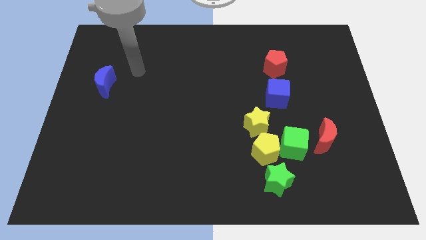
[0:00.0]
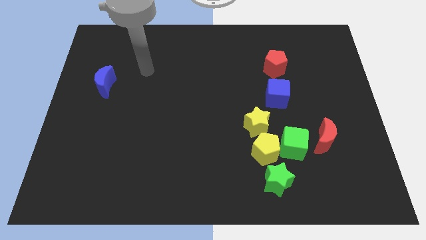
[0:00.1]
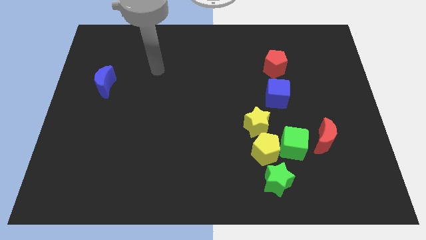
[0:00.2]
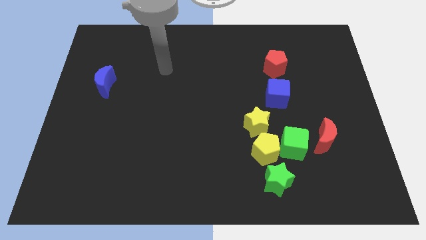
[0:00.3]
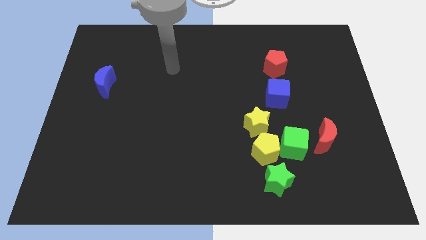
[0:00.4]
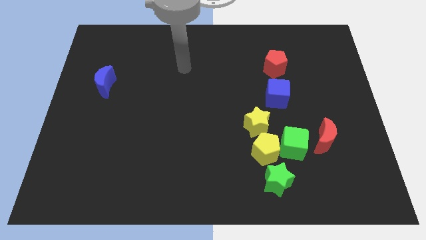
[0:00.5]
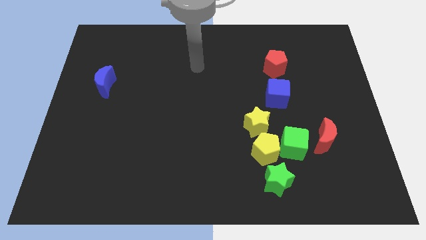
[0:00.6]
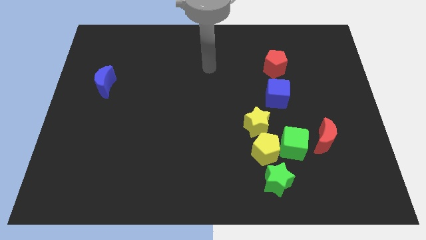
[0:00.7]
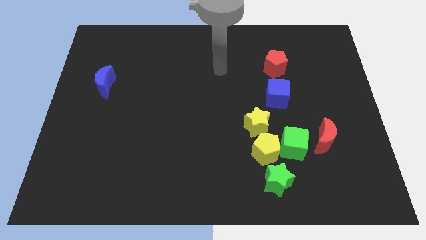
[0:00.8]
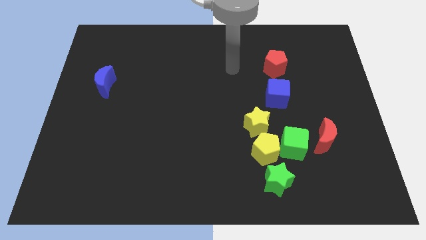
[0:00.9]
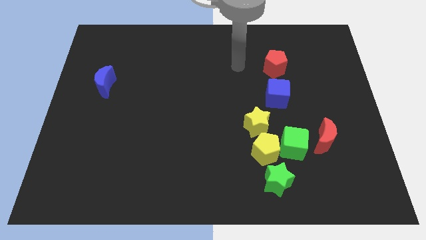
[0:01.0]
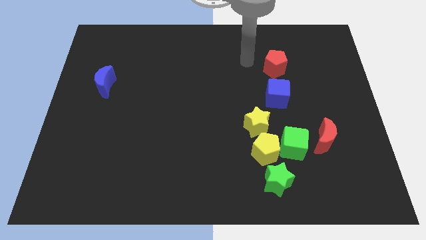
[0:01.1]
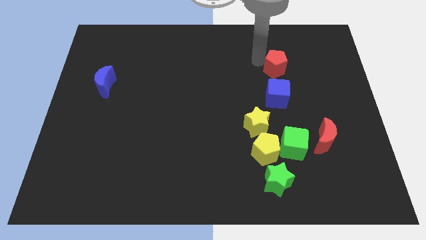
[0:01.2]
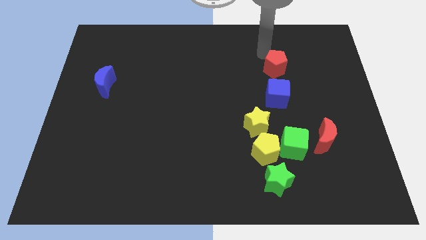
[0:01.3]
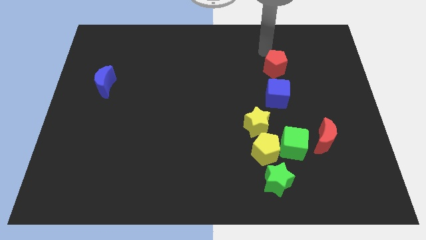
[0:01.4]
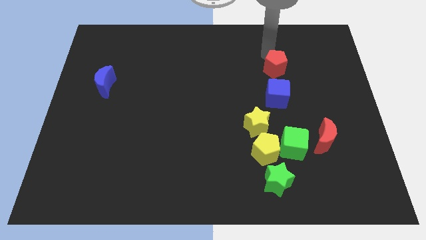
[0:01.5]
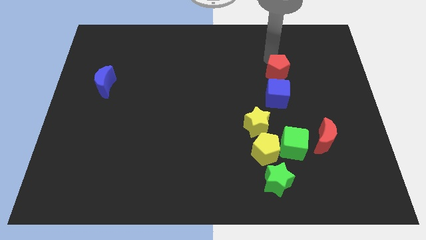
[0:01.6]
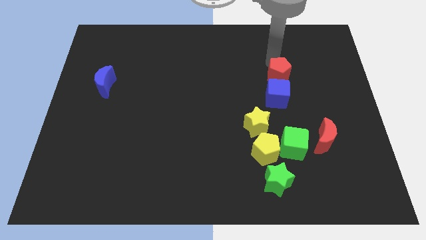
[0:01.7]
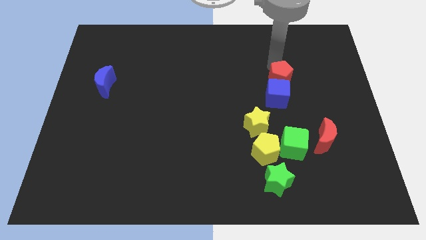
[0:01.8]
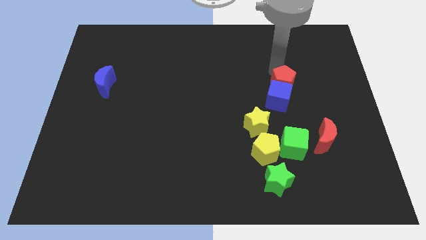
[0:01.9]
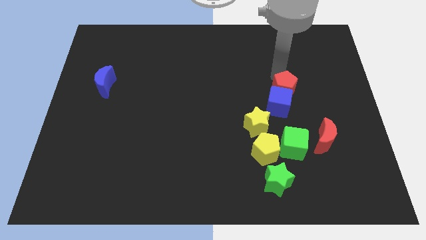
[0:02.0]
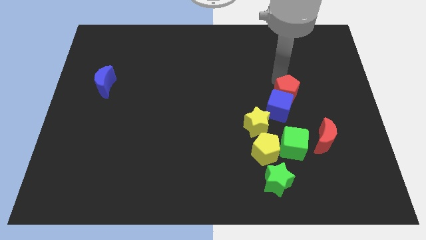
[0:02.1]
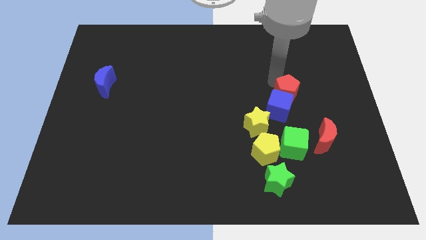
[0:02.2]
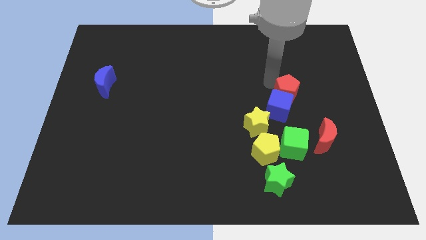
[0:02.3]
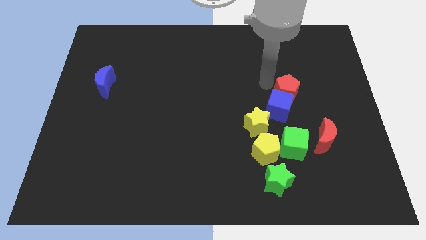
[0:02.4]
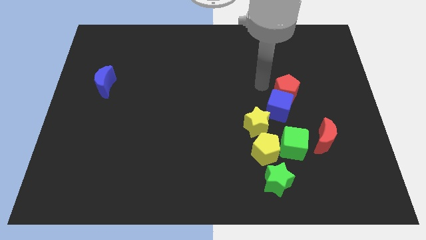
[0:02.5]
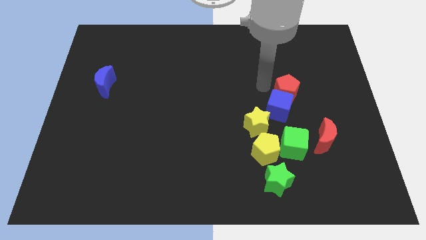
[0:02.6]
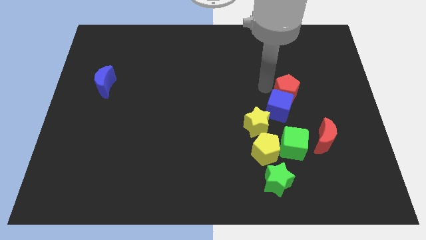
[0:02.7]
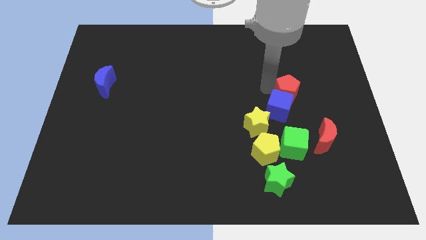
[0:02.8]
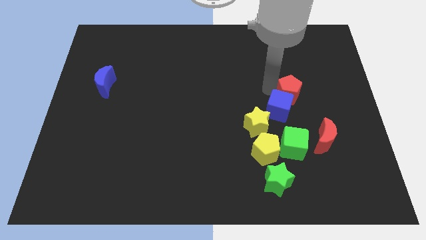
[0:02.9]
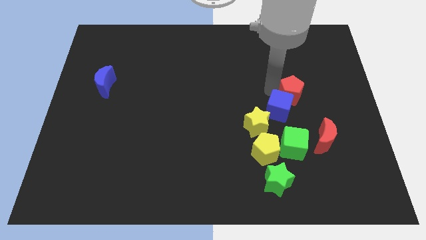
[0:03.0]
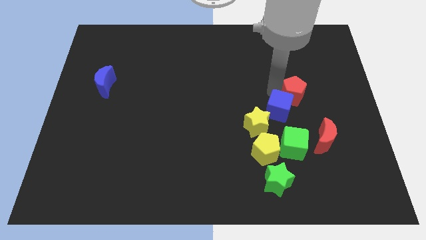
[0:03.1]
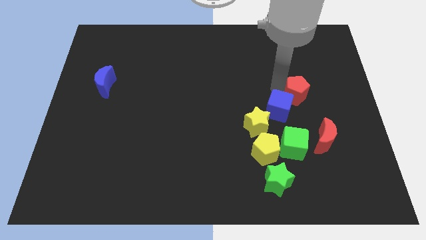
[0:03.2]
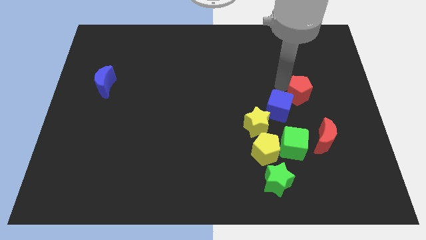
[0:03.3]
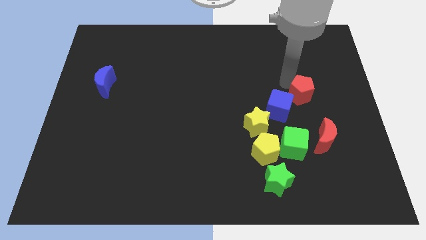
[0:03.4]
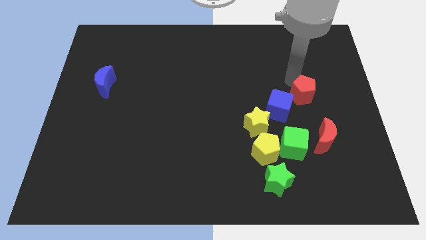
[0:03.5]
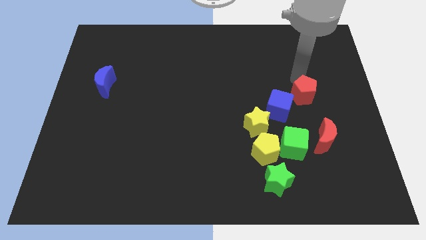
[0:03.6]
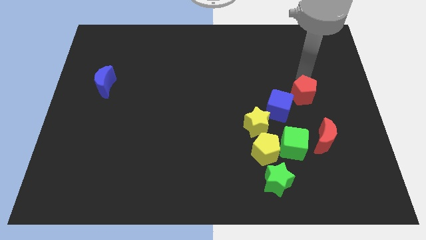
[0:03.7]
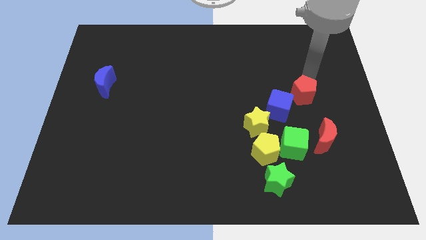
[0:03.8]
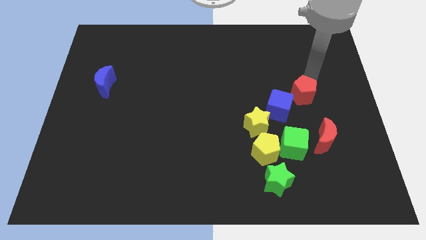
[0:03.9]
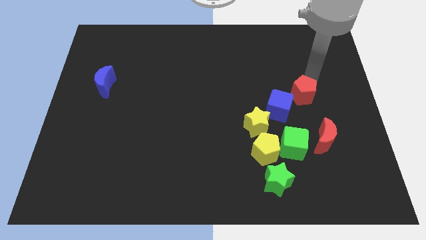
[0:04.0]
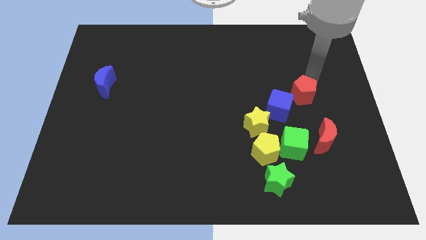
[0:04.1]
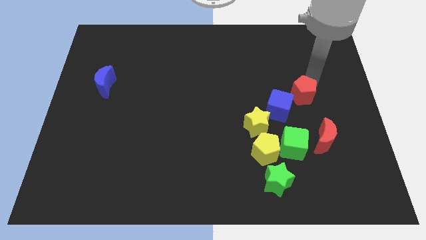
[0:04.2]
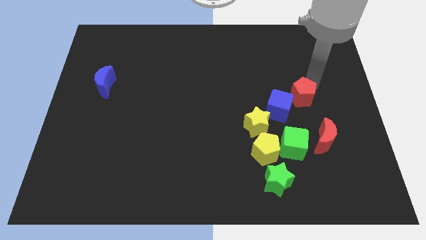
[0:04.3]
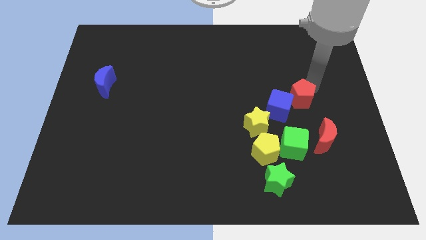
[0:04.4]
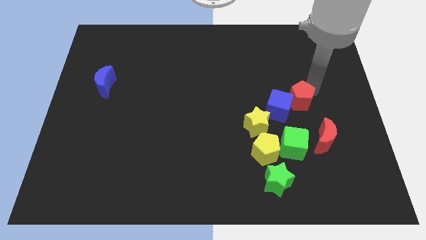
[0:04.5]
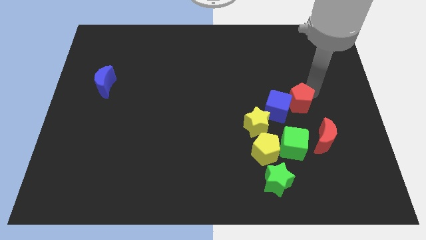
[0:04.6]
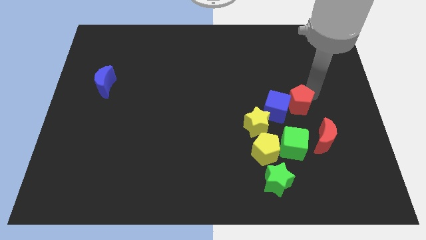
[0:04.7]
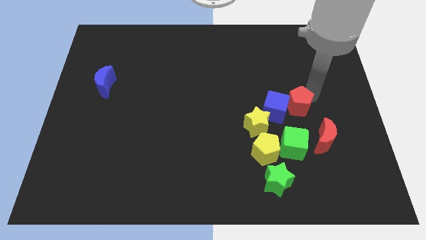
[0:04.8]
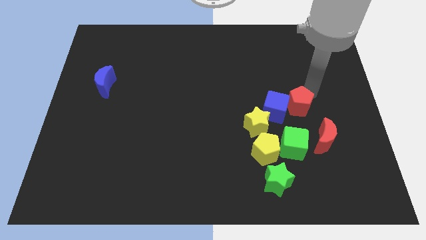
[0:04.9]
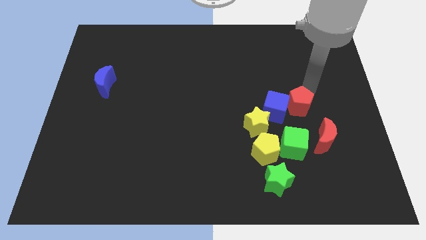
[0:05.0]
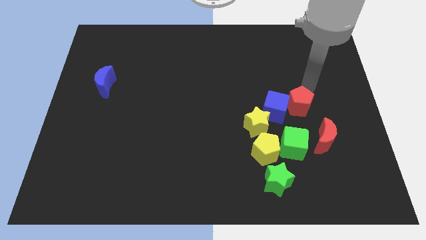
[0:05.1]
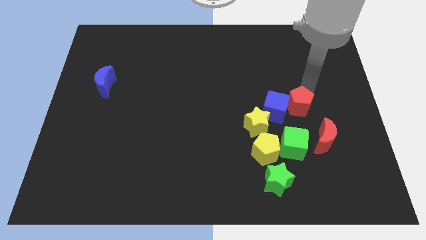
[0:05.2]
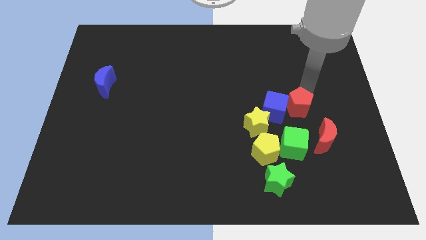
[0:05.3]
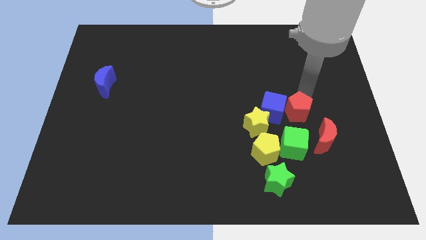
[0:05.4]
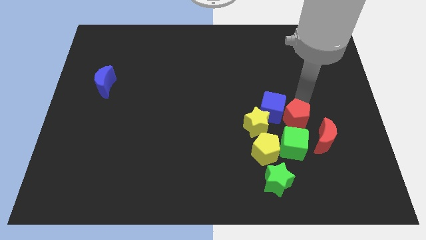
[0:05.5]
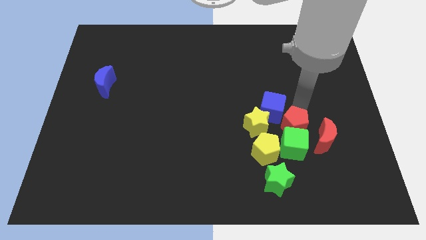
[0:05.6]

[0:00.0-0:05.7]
slide the red pentagon next to the green cube

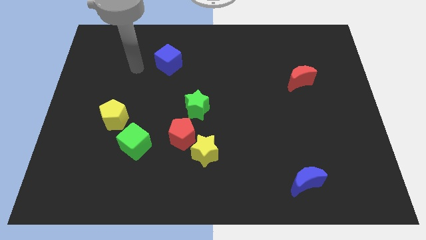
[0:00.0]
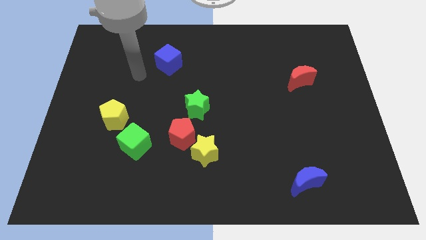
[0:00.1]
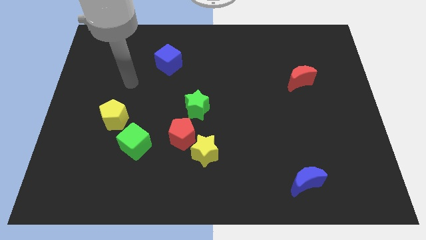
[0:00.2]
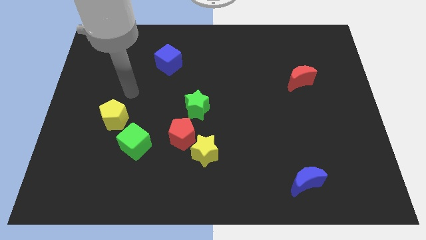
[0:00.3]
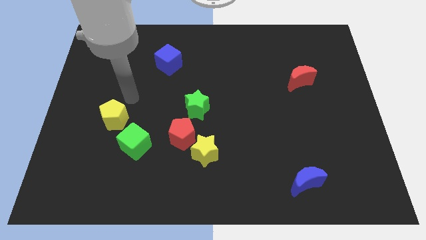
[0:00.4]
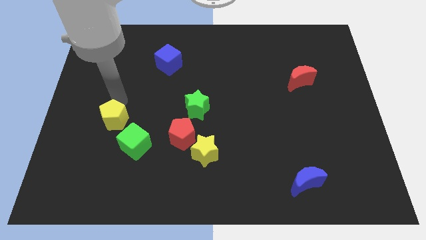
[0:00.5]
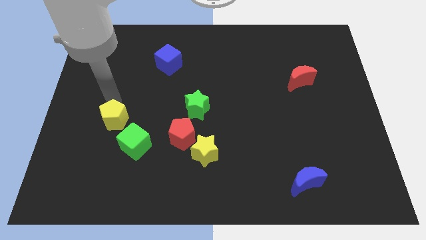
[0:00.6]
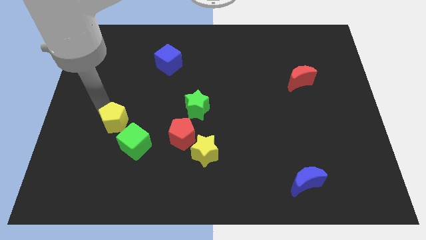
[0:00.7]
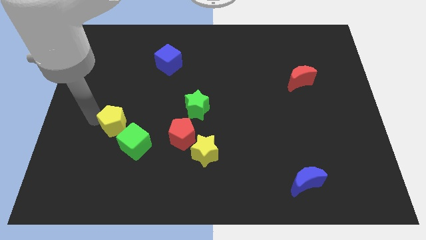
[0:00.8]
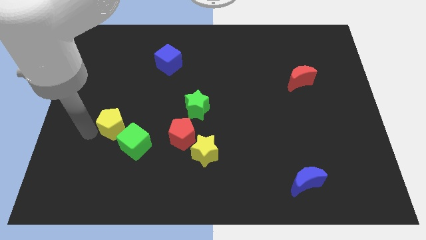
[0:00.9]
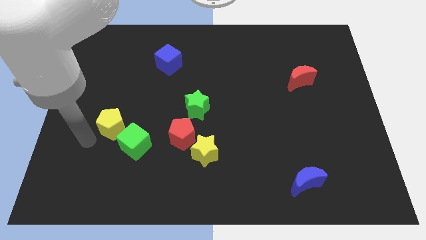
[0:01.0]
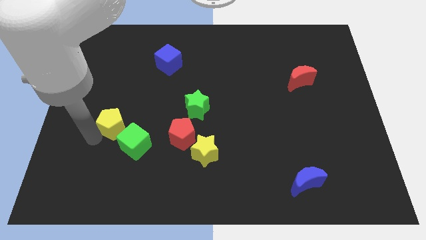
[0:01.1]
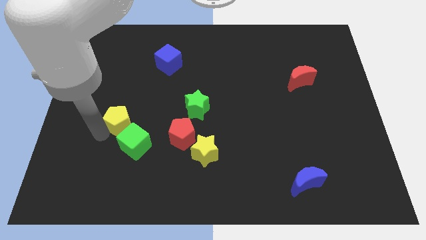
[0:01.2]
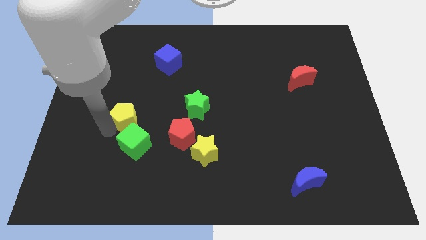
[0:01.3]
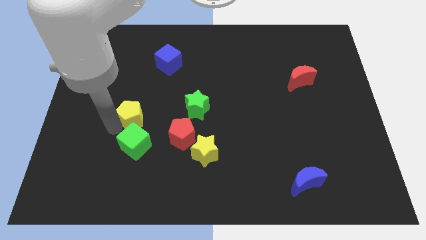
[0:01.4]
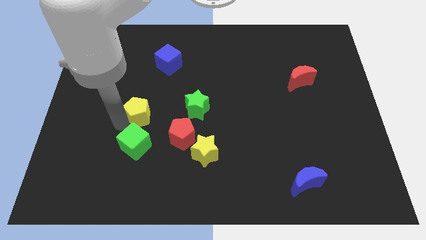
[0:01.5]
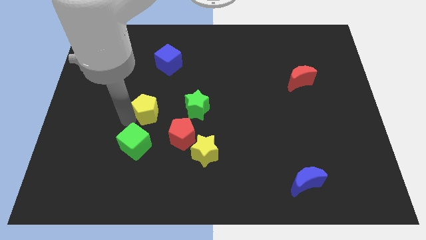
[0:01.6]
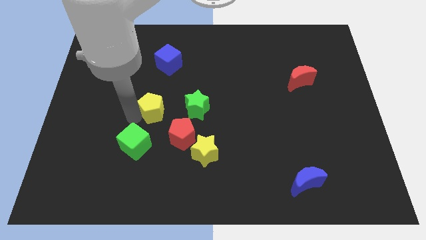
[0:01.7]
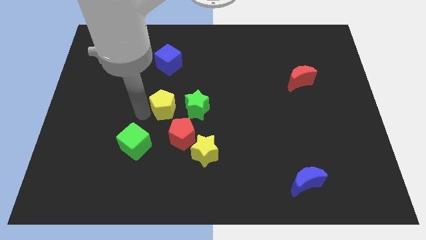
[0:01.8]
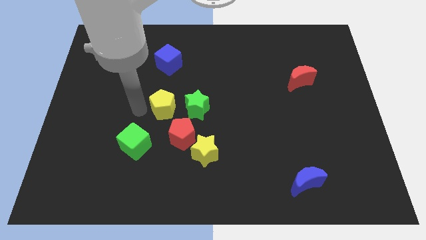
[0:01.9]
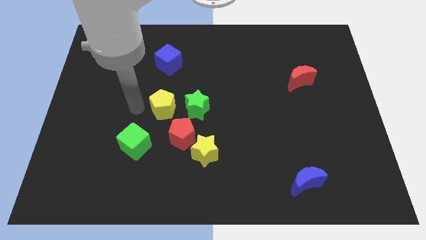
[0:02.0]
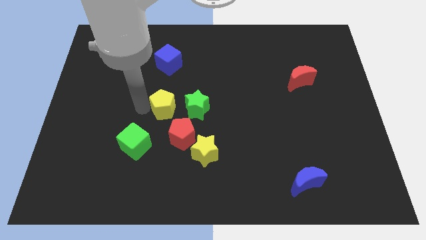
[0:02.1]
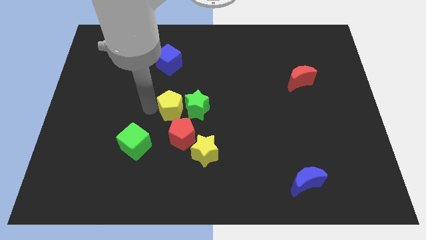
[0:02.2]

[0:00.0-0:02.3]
move the yellow pentagon towards the green star
